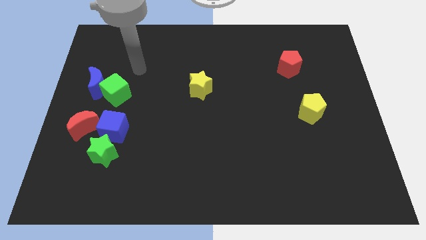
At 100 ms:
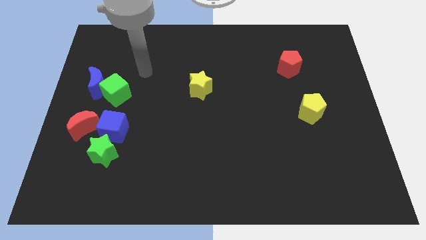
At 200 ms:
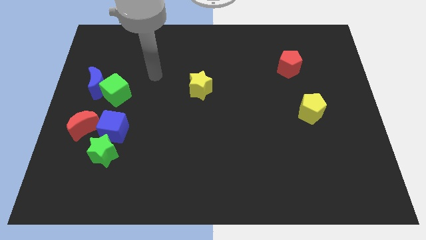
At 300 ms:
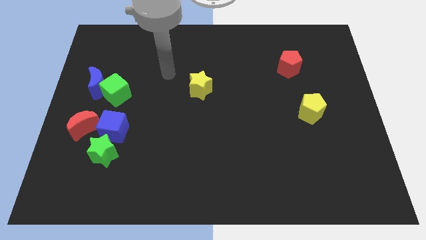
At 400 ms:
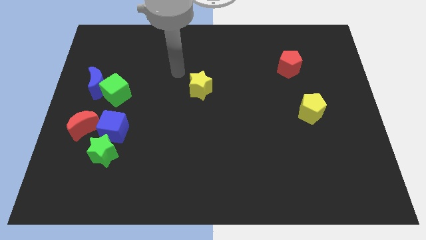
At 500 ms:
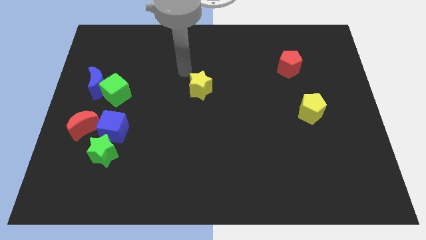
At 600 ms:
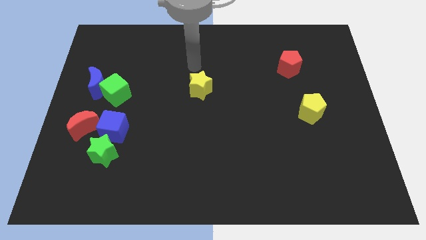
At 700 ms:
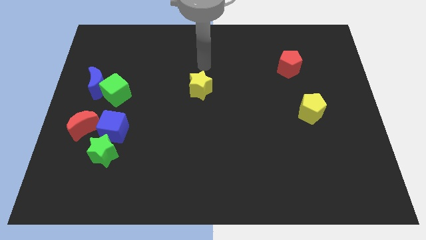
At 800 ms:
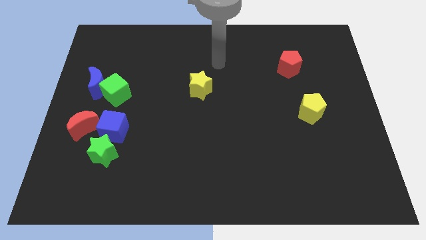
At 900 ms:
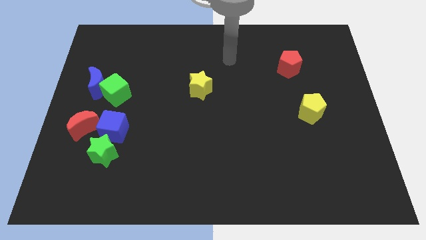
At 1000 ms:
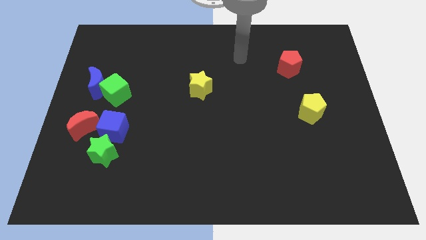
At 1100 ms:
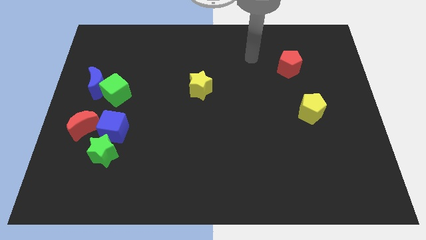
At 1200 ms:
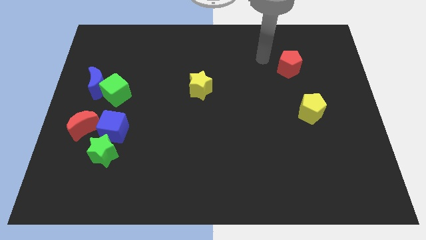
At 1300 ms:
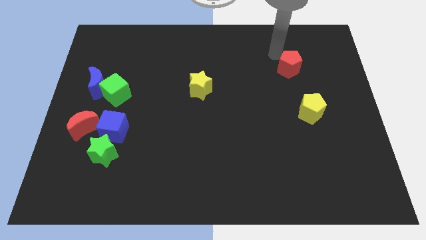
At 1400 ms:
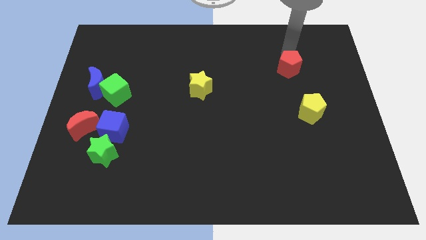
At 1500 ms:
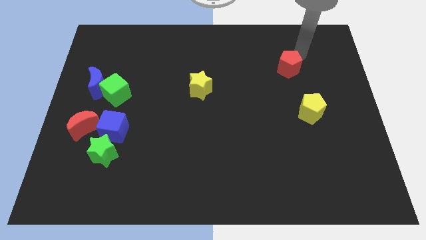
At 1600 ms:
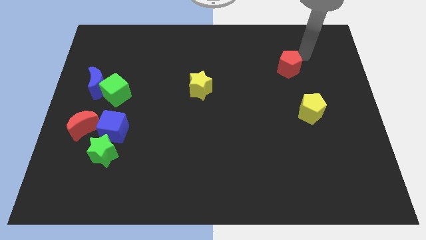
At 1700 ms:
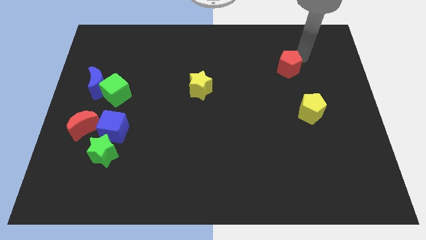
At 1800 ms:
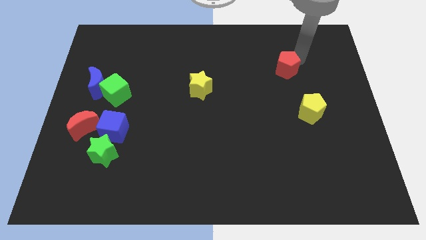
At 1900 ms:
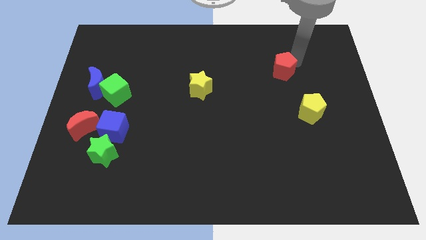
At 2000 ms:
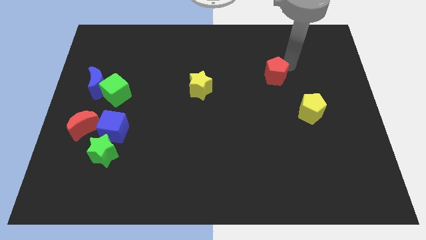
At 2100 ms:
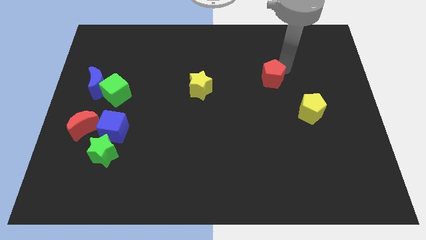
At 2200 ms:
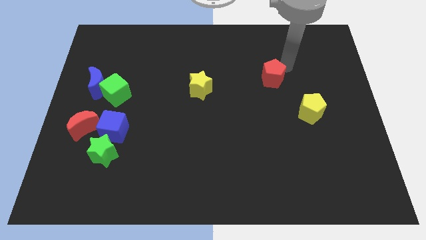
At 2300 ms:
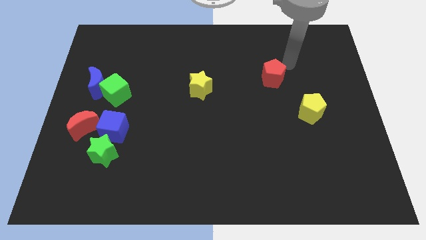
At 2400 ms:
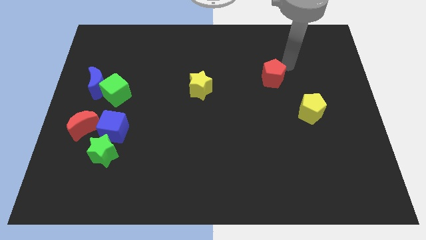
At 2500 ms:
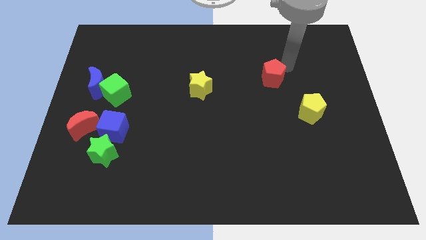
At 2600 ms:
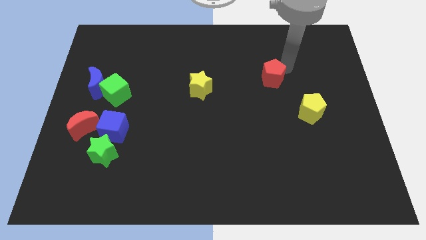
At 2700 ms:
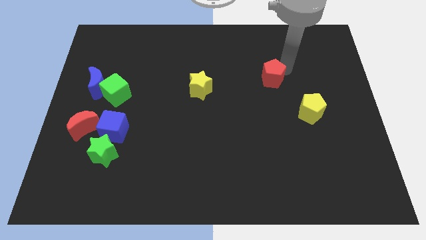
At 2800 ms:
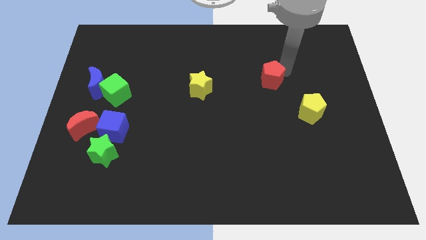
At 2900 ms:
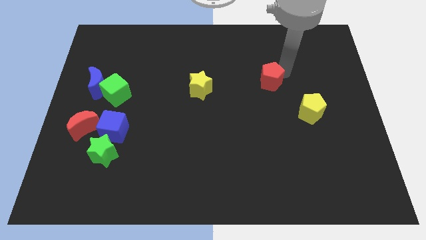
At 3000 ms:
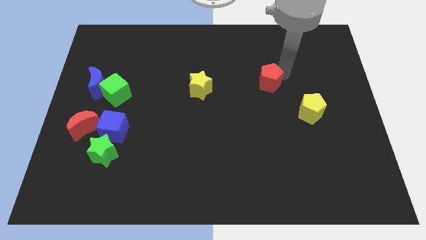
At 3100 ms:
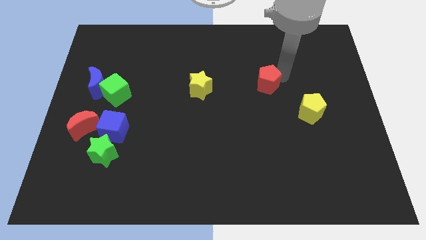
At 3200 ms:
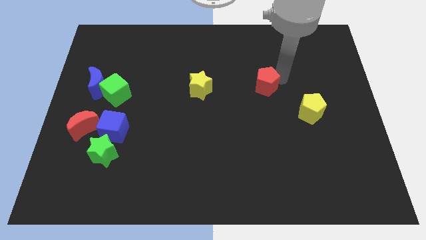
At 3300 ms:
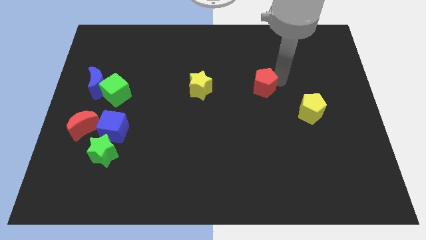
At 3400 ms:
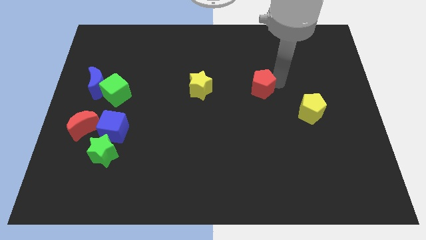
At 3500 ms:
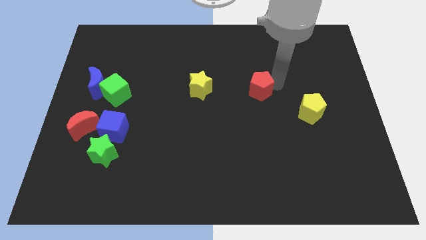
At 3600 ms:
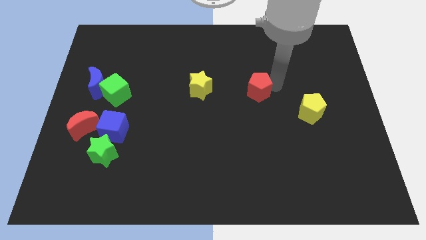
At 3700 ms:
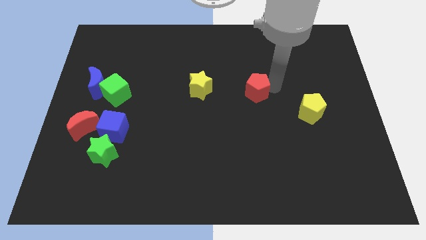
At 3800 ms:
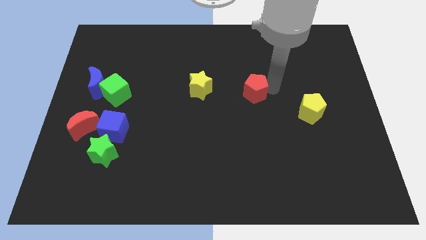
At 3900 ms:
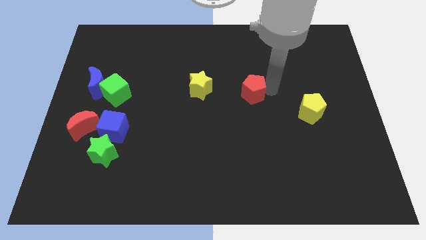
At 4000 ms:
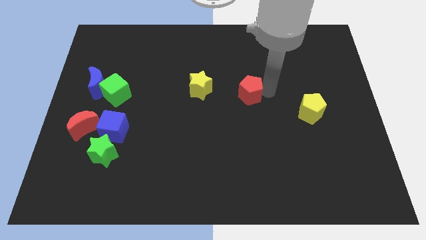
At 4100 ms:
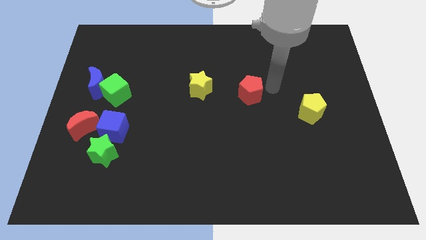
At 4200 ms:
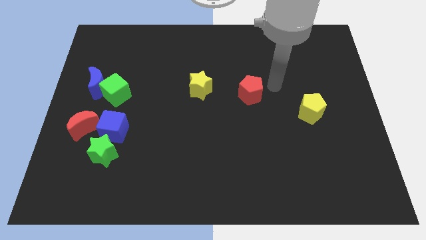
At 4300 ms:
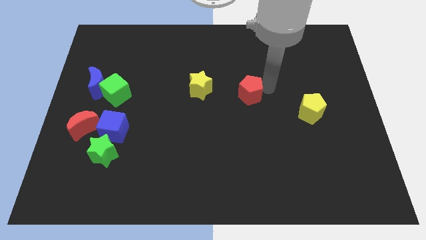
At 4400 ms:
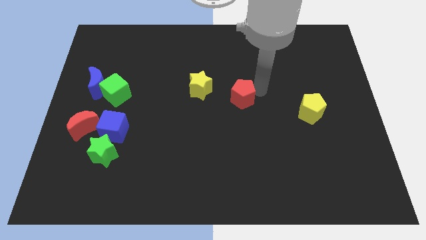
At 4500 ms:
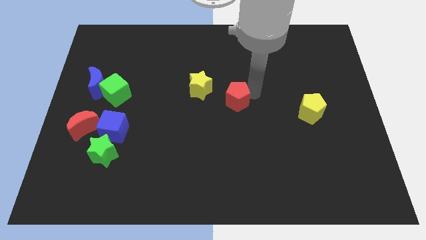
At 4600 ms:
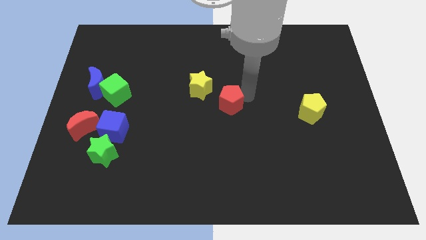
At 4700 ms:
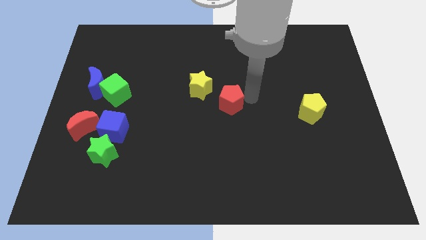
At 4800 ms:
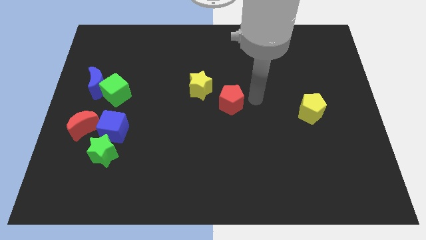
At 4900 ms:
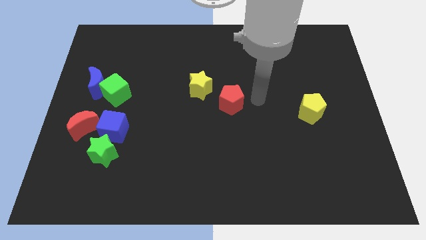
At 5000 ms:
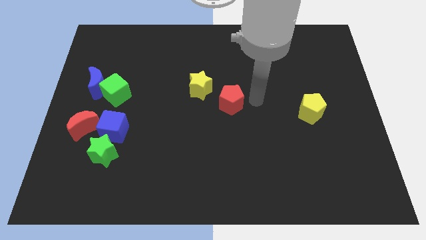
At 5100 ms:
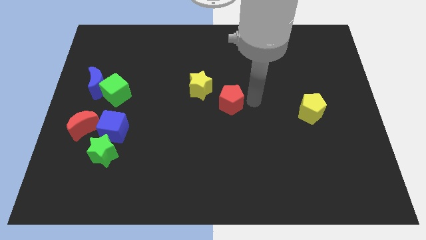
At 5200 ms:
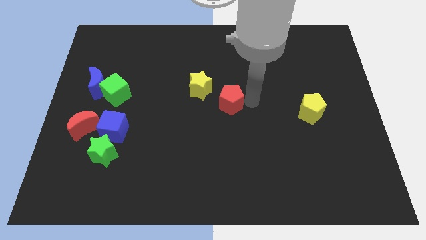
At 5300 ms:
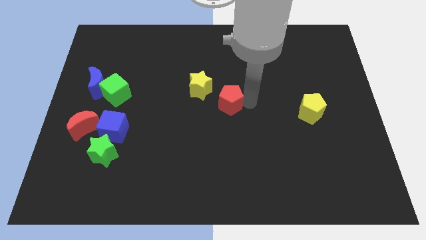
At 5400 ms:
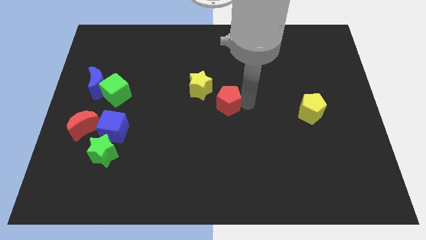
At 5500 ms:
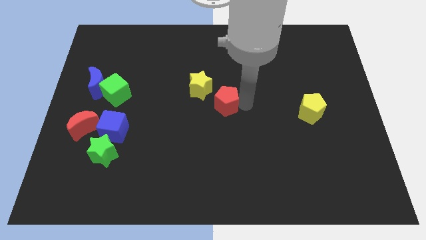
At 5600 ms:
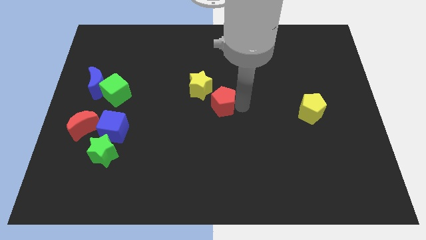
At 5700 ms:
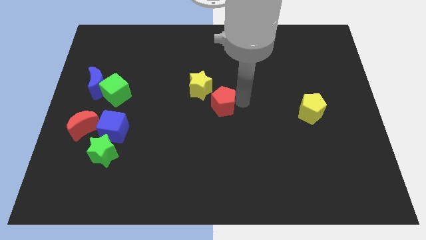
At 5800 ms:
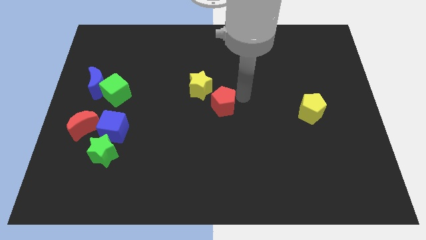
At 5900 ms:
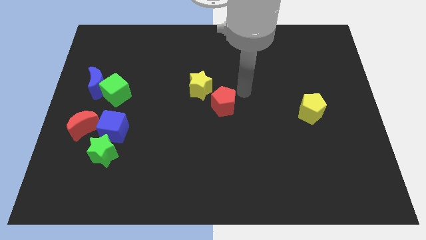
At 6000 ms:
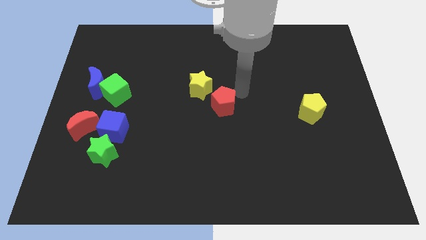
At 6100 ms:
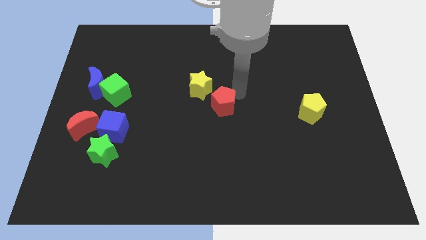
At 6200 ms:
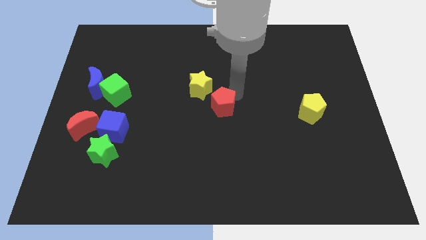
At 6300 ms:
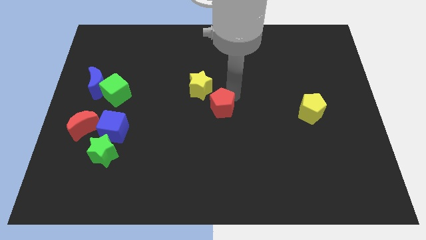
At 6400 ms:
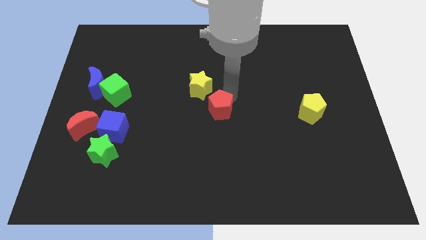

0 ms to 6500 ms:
put the red pentagon to the bottom side of the yellow star
